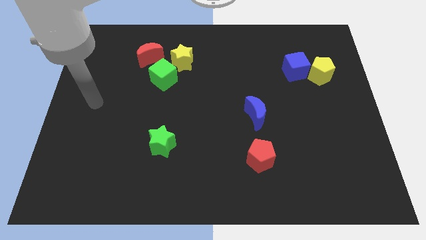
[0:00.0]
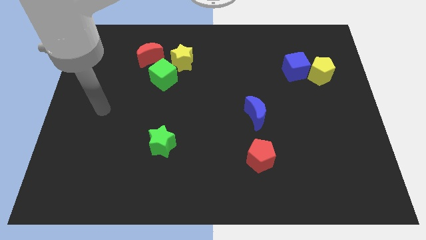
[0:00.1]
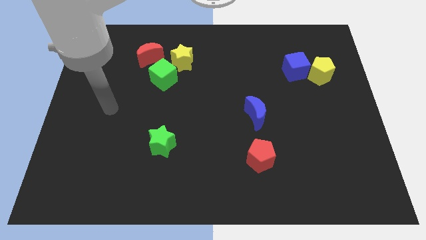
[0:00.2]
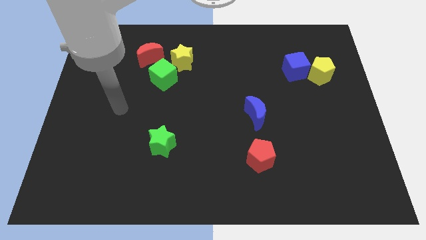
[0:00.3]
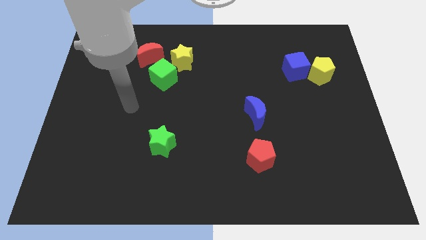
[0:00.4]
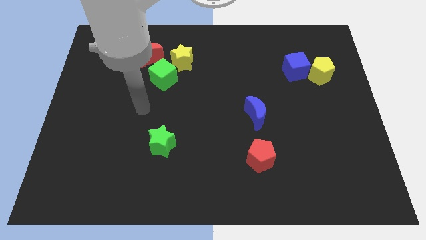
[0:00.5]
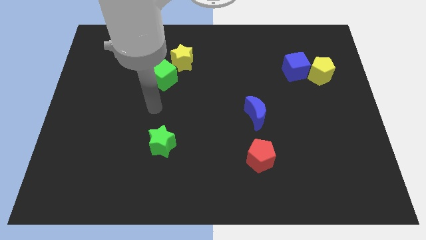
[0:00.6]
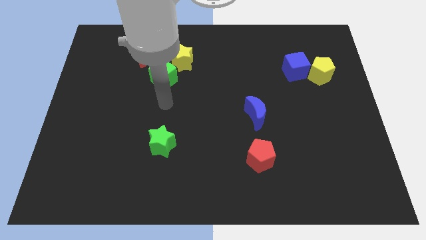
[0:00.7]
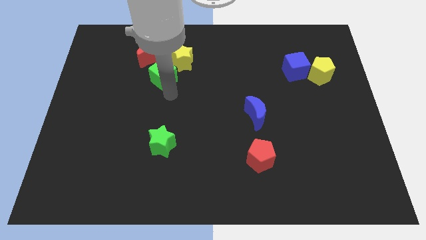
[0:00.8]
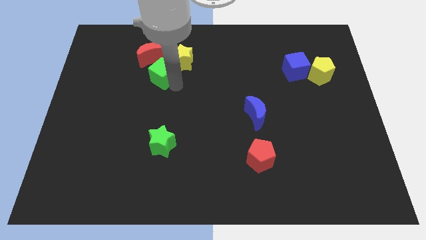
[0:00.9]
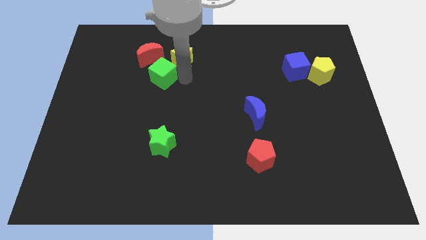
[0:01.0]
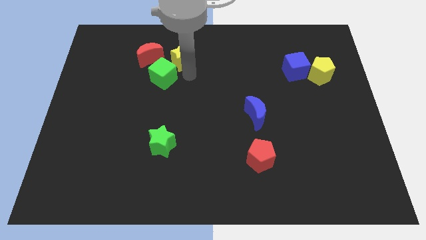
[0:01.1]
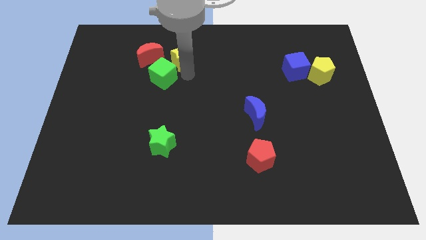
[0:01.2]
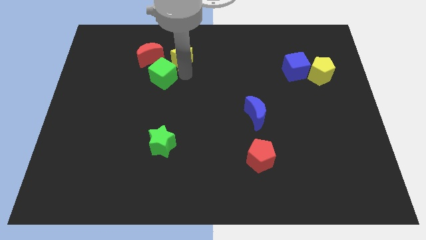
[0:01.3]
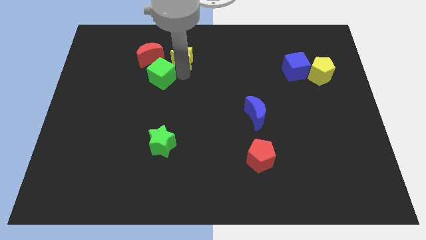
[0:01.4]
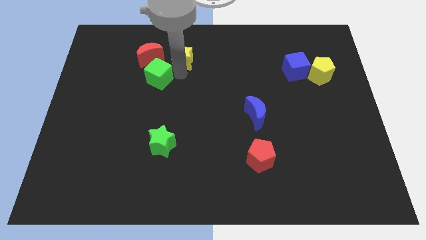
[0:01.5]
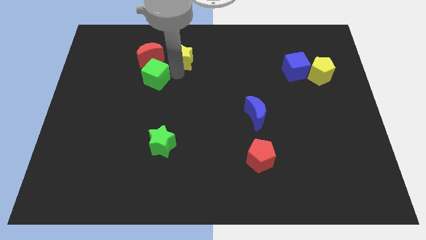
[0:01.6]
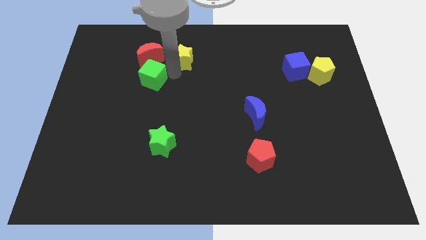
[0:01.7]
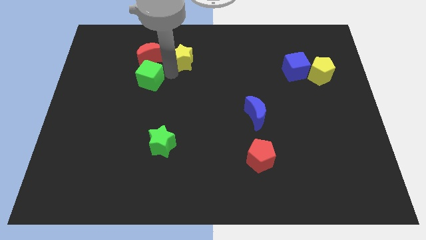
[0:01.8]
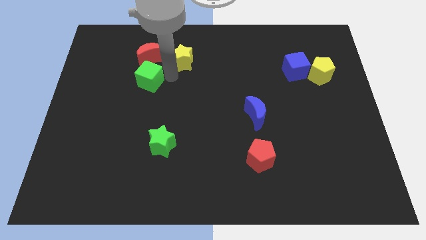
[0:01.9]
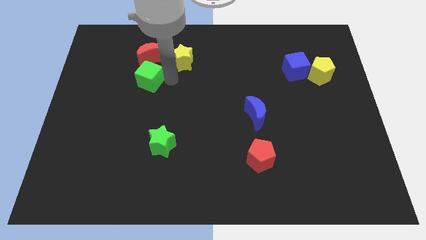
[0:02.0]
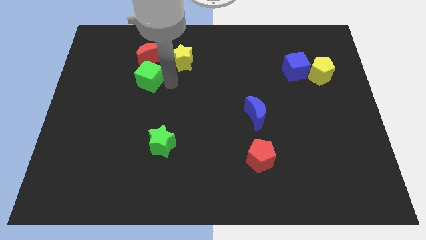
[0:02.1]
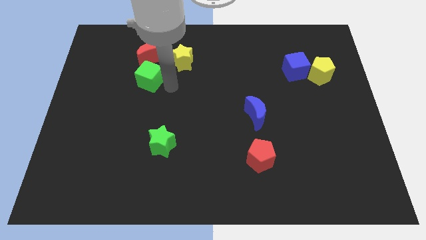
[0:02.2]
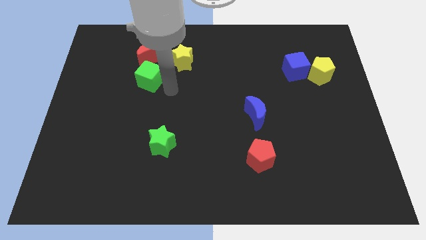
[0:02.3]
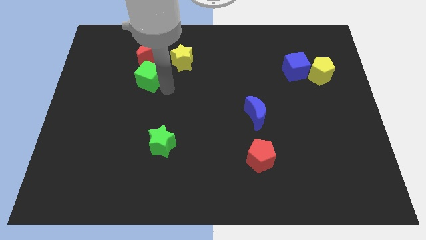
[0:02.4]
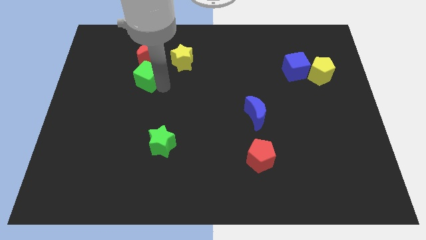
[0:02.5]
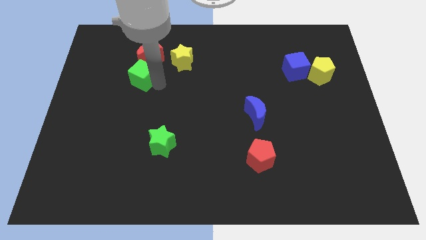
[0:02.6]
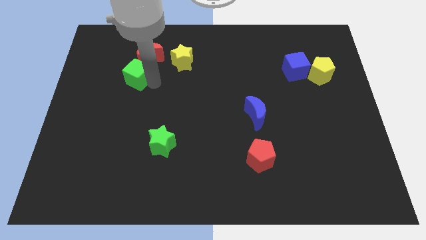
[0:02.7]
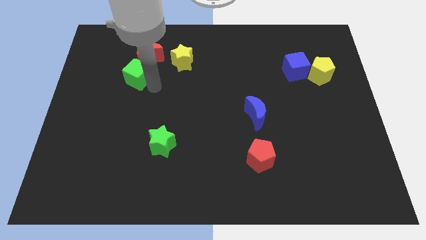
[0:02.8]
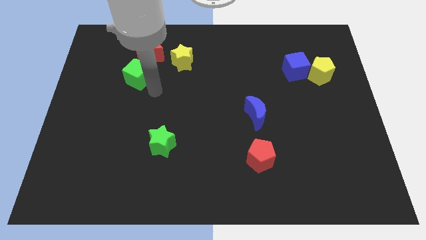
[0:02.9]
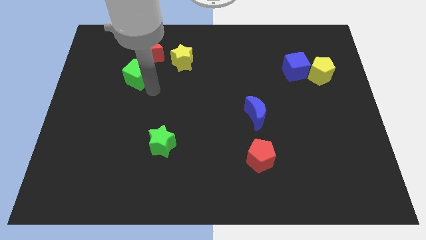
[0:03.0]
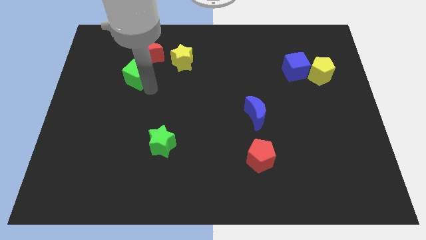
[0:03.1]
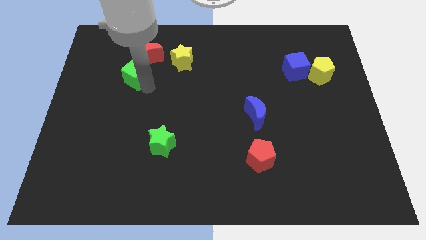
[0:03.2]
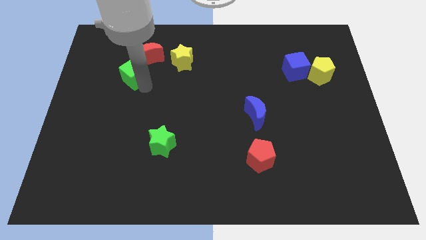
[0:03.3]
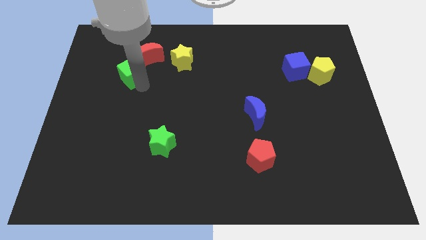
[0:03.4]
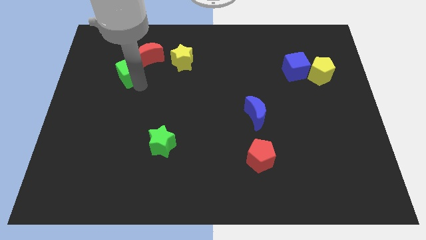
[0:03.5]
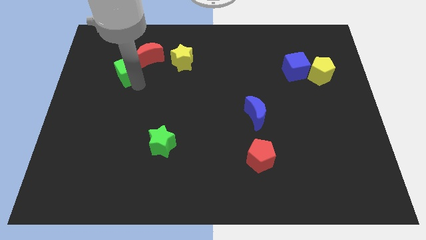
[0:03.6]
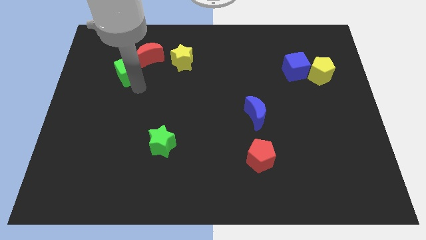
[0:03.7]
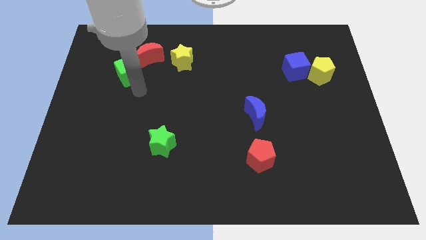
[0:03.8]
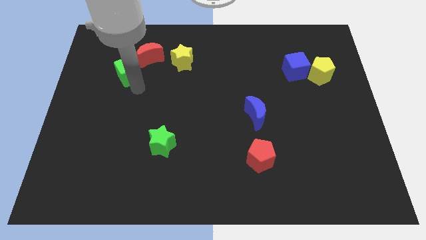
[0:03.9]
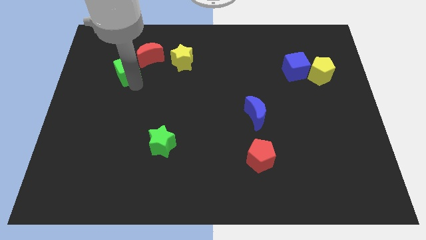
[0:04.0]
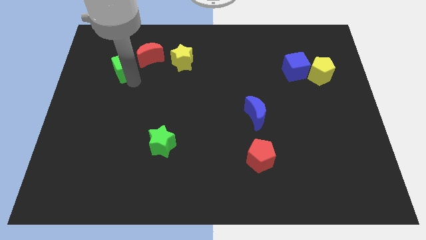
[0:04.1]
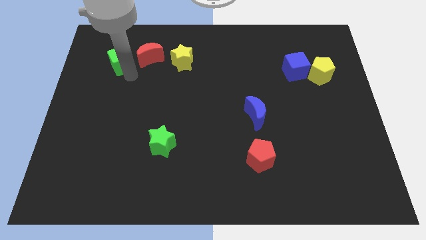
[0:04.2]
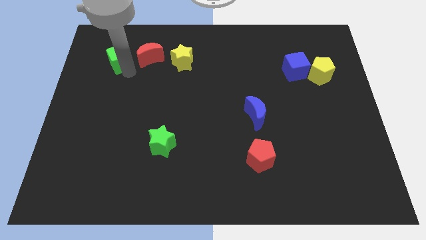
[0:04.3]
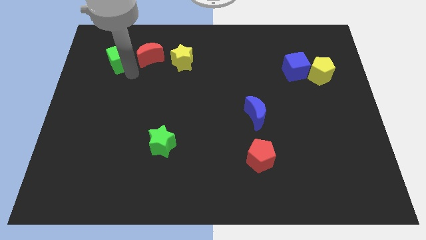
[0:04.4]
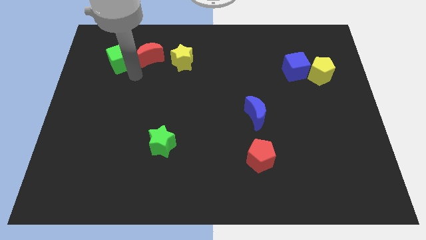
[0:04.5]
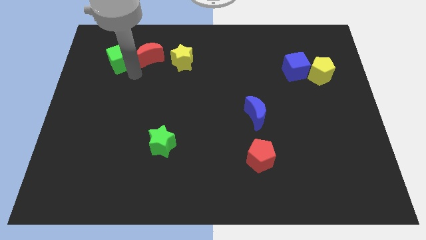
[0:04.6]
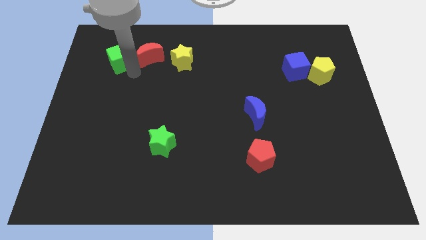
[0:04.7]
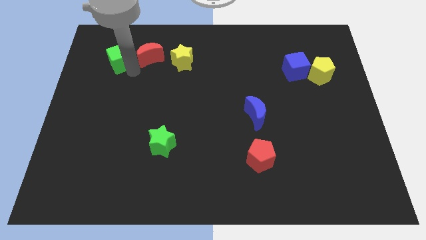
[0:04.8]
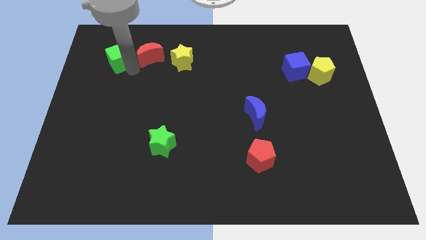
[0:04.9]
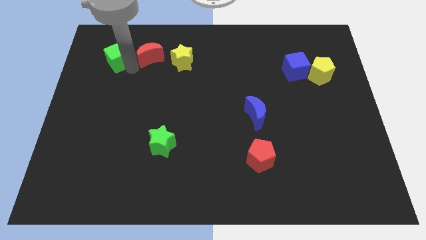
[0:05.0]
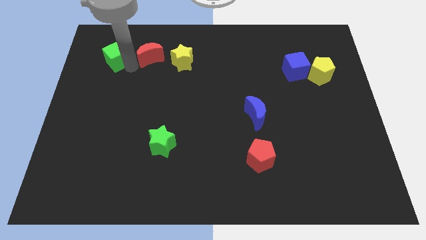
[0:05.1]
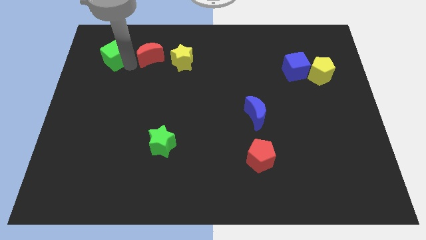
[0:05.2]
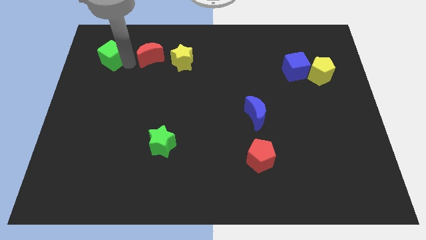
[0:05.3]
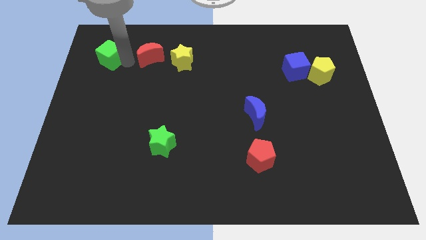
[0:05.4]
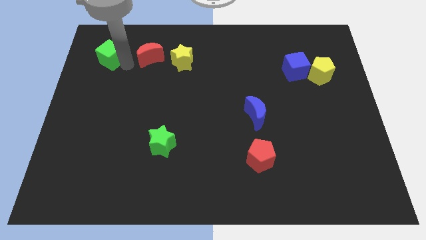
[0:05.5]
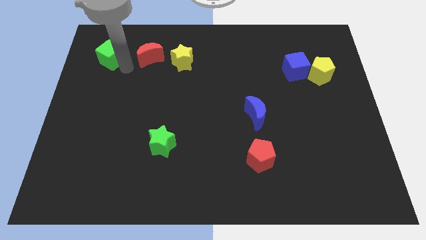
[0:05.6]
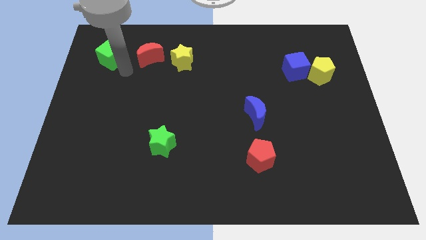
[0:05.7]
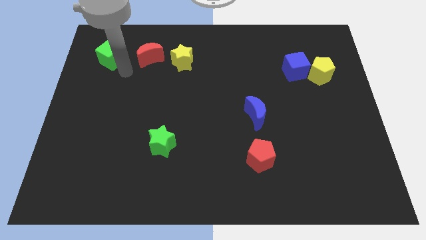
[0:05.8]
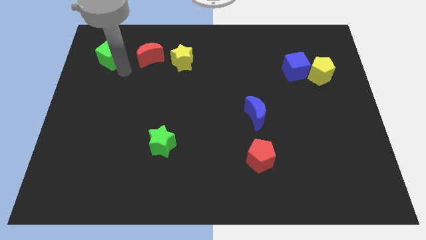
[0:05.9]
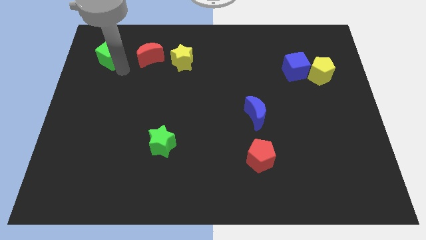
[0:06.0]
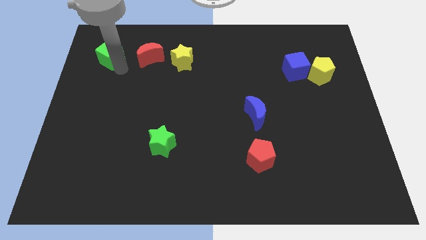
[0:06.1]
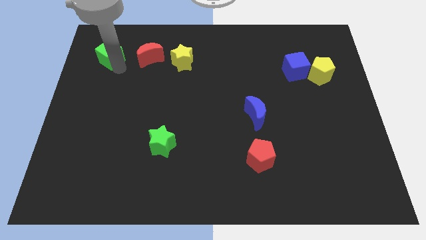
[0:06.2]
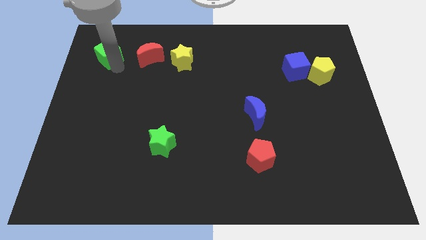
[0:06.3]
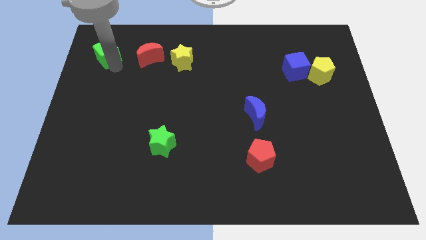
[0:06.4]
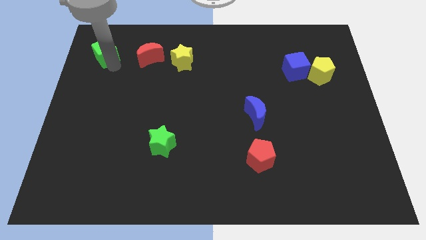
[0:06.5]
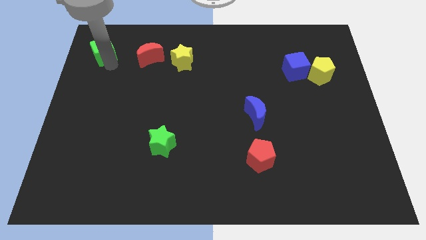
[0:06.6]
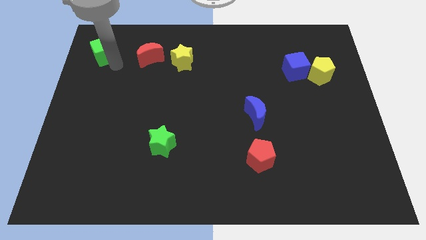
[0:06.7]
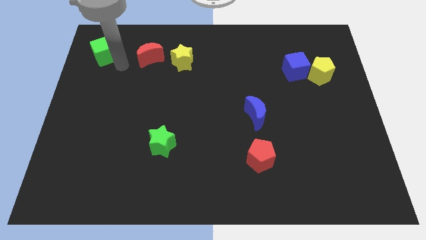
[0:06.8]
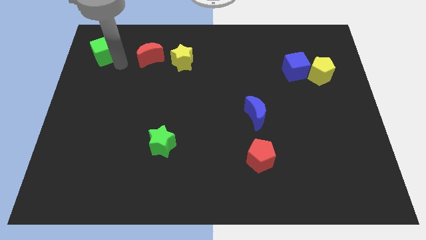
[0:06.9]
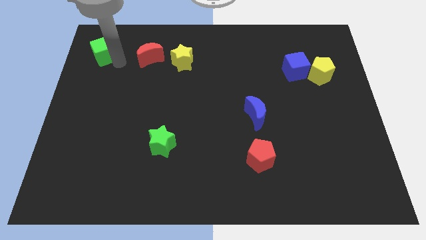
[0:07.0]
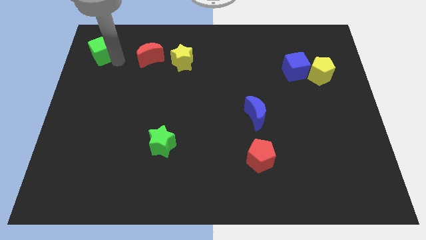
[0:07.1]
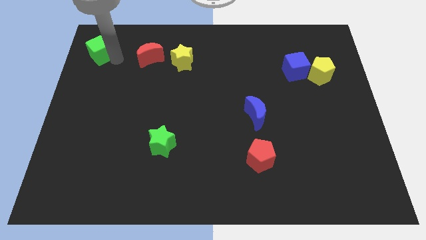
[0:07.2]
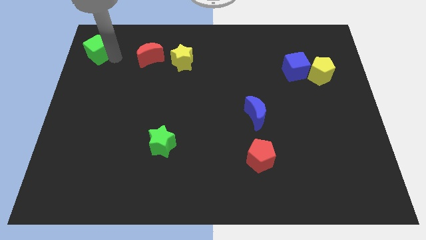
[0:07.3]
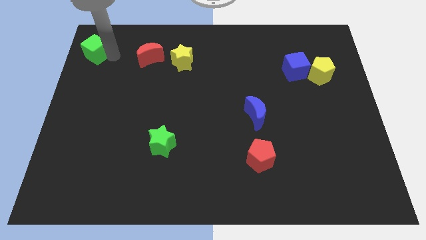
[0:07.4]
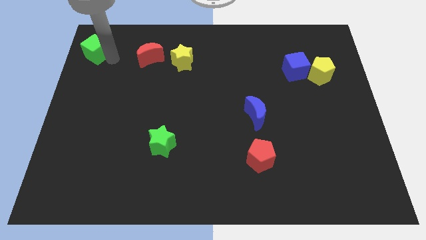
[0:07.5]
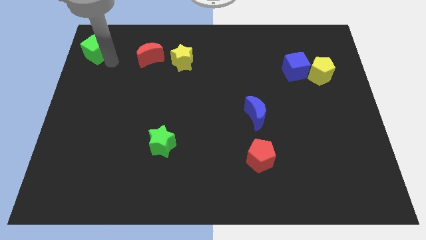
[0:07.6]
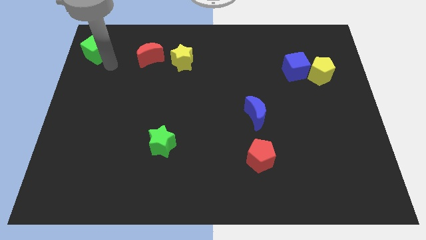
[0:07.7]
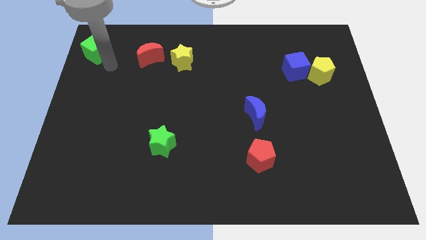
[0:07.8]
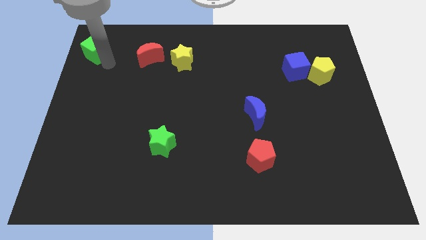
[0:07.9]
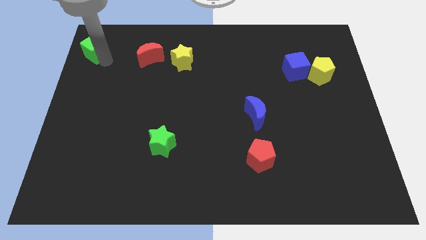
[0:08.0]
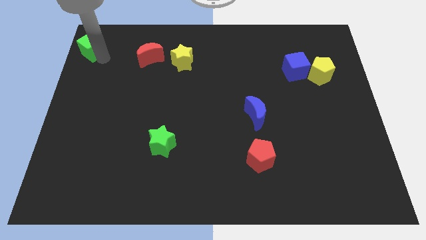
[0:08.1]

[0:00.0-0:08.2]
put the green cube to the upper left corner
